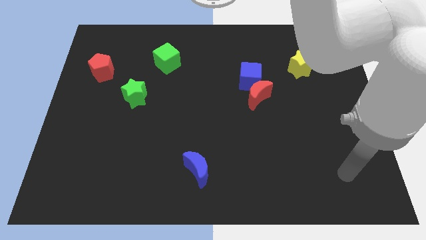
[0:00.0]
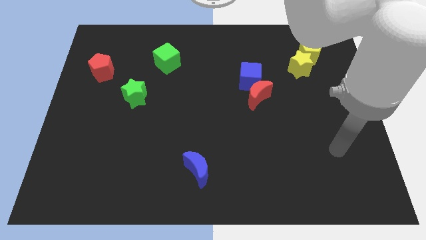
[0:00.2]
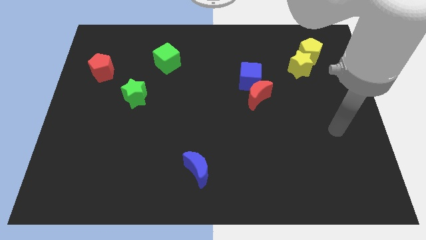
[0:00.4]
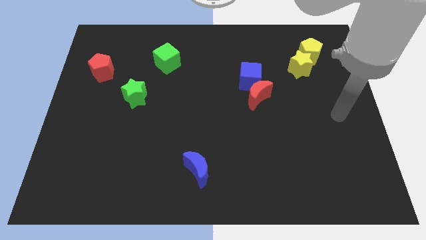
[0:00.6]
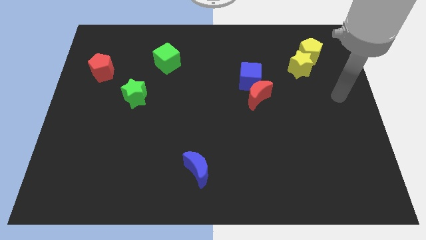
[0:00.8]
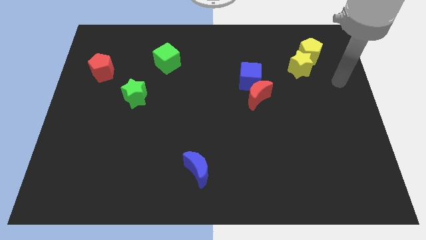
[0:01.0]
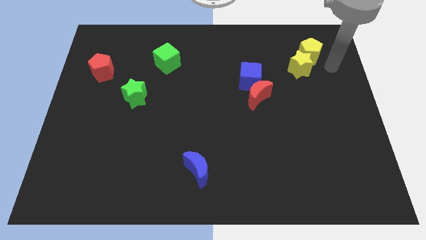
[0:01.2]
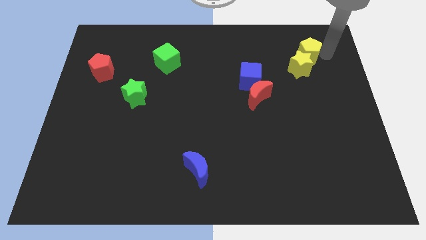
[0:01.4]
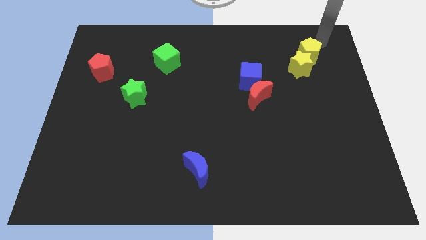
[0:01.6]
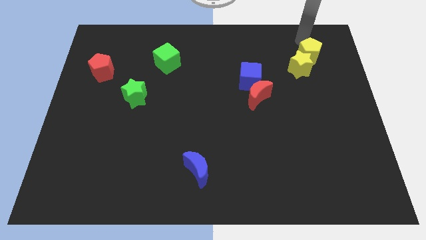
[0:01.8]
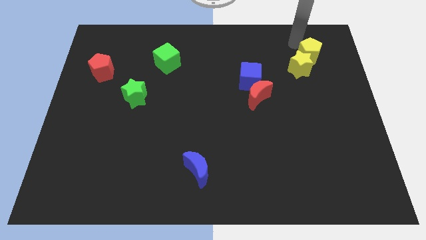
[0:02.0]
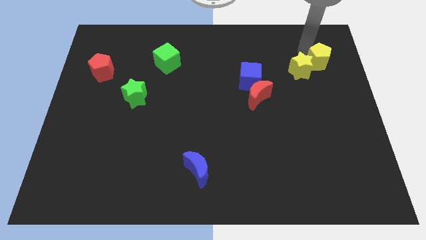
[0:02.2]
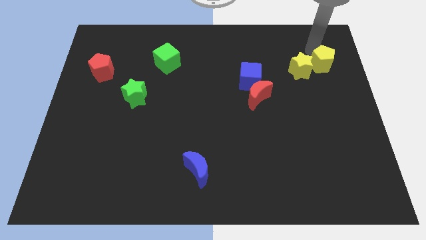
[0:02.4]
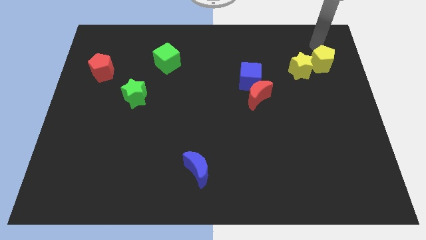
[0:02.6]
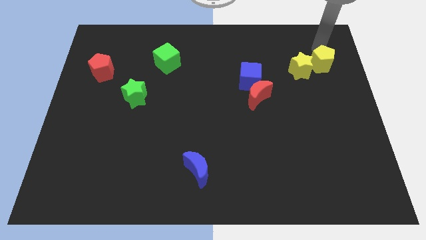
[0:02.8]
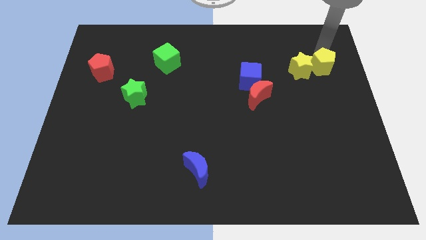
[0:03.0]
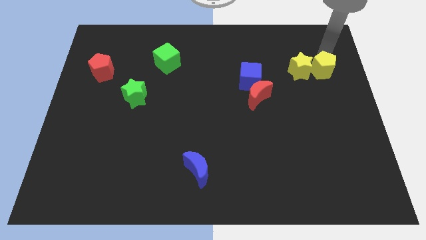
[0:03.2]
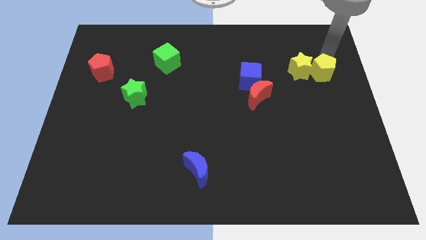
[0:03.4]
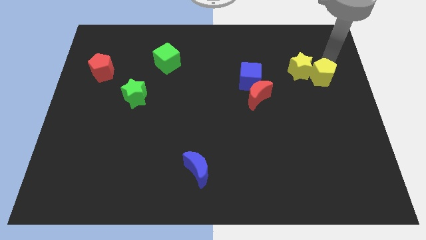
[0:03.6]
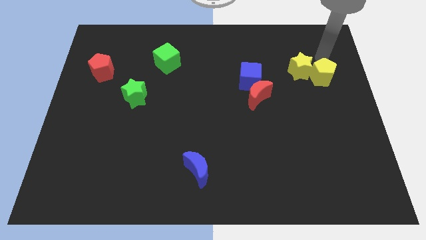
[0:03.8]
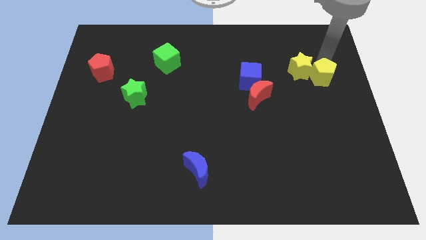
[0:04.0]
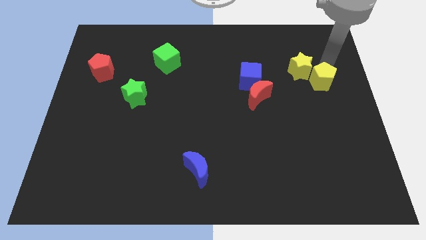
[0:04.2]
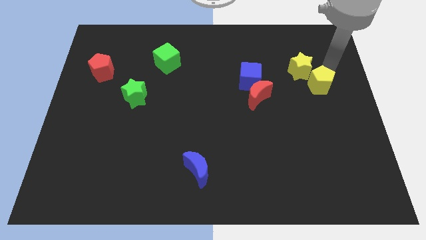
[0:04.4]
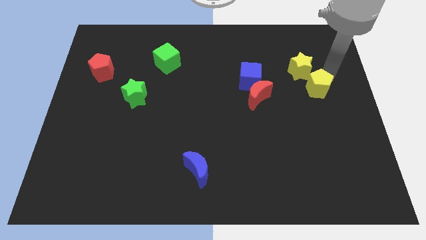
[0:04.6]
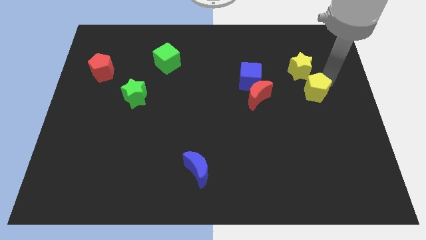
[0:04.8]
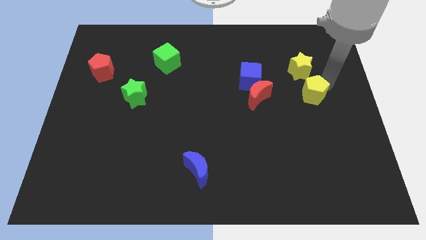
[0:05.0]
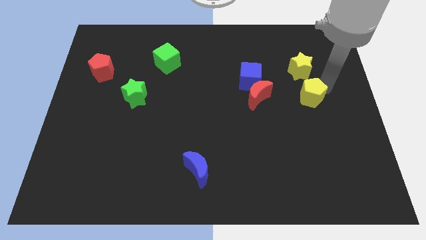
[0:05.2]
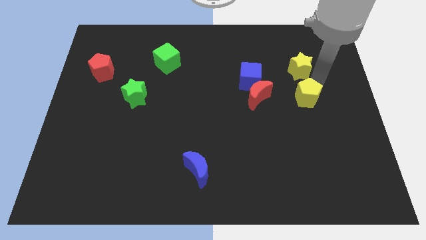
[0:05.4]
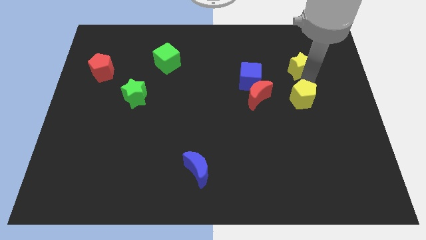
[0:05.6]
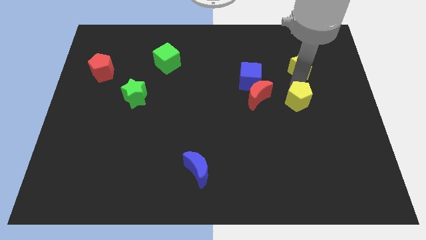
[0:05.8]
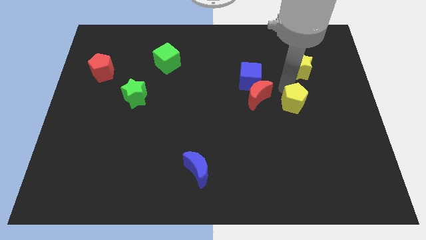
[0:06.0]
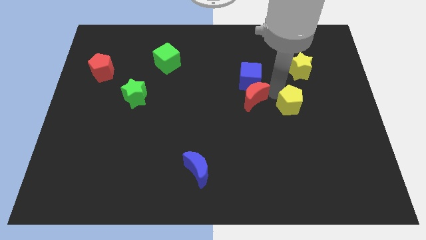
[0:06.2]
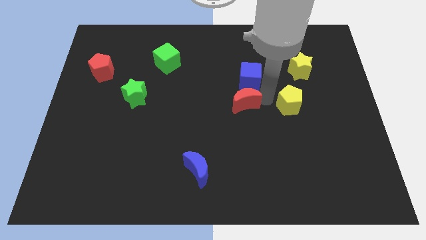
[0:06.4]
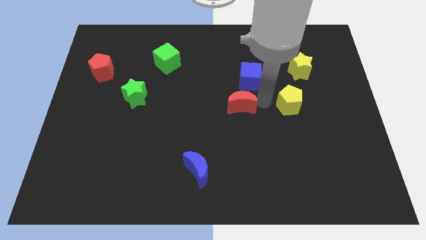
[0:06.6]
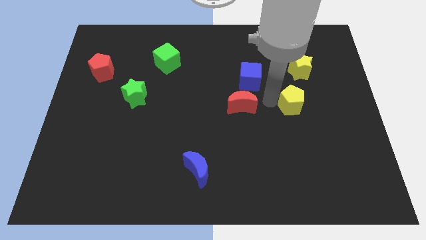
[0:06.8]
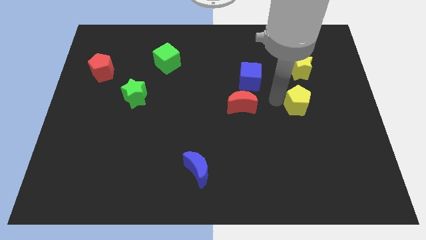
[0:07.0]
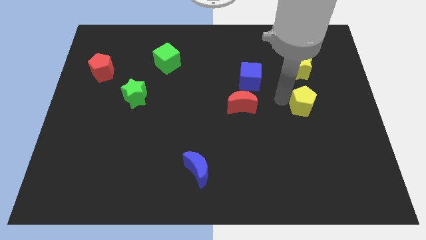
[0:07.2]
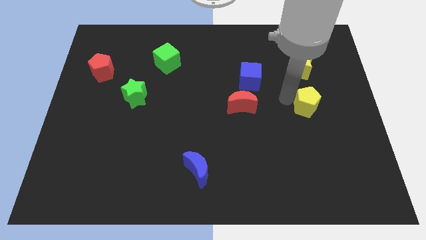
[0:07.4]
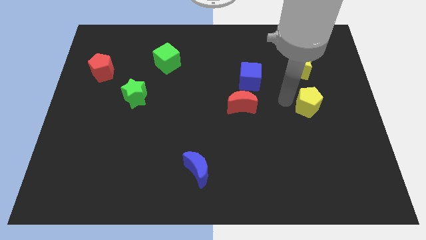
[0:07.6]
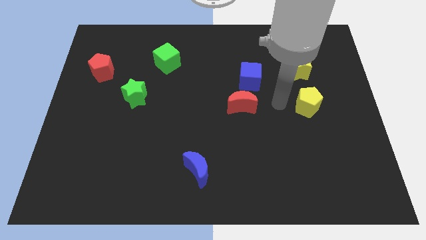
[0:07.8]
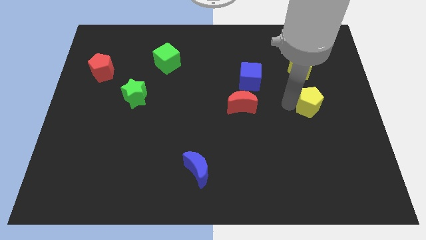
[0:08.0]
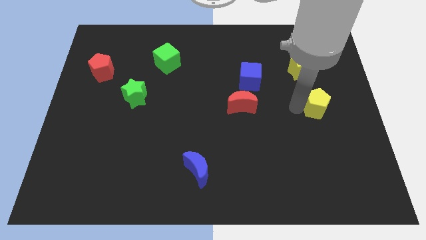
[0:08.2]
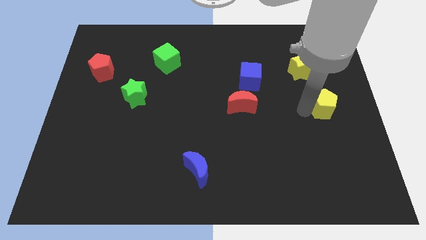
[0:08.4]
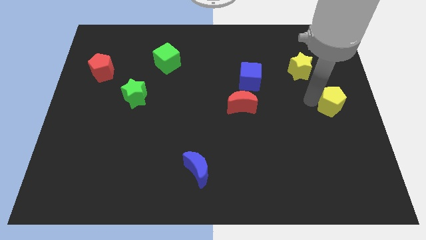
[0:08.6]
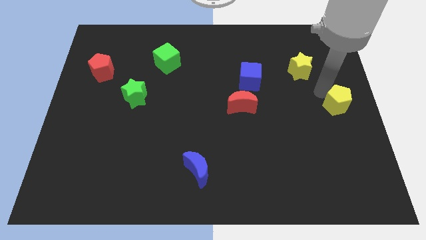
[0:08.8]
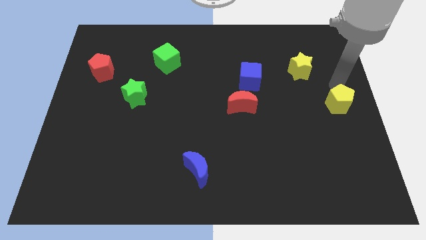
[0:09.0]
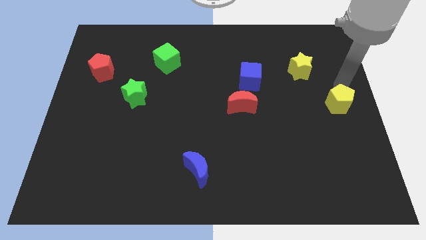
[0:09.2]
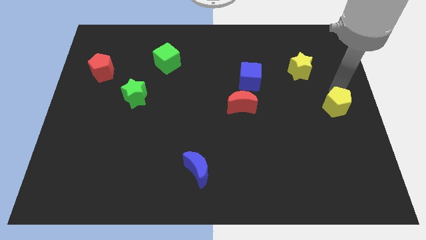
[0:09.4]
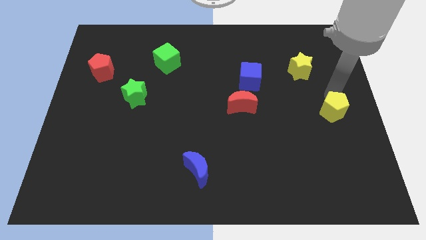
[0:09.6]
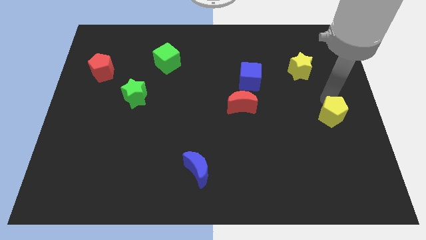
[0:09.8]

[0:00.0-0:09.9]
push the yellow pentagon downwards

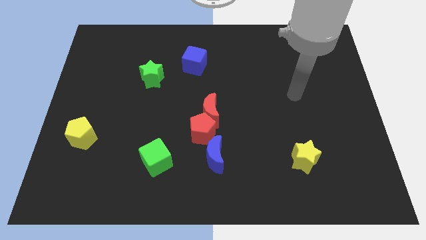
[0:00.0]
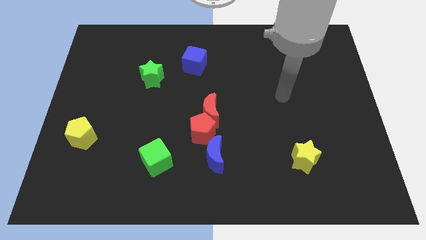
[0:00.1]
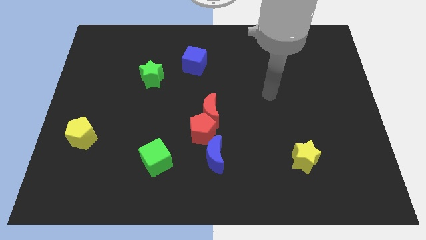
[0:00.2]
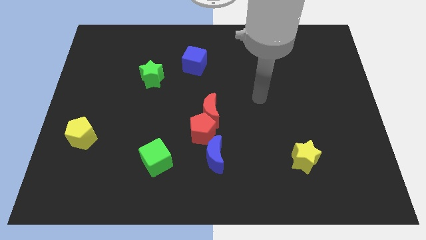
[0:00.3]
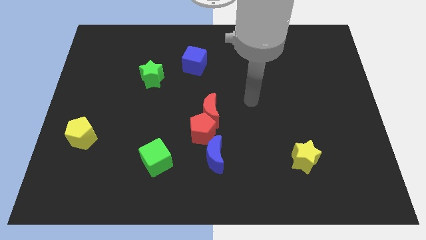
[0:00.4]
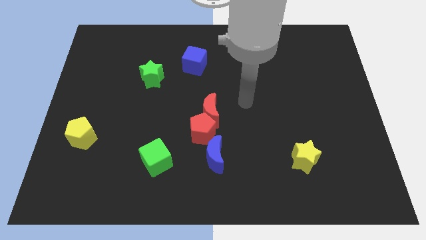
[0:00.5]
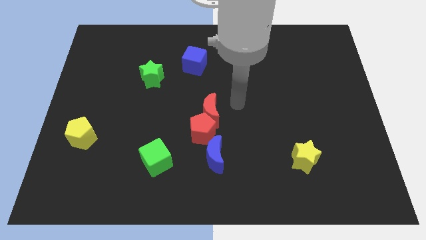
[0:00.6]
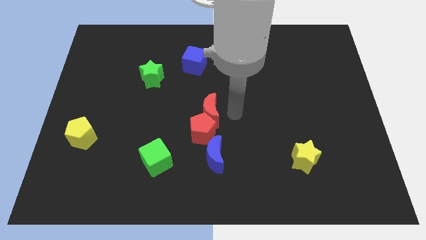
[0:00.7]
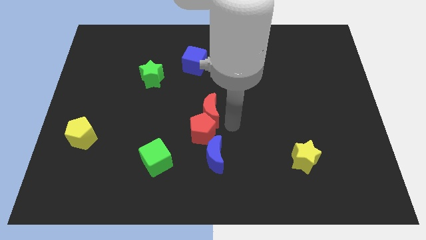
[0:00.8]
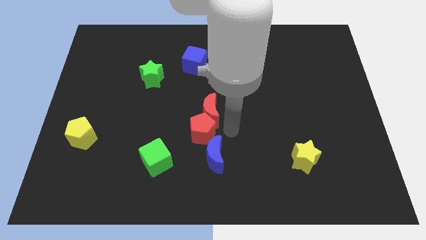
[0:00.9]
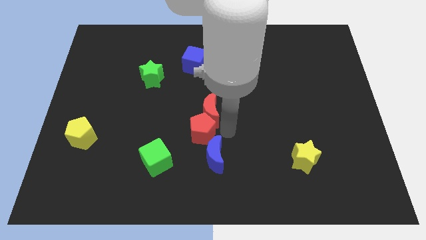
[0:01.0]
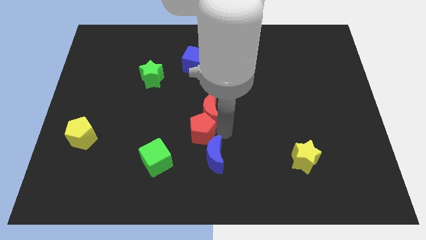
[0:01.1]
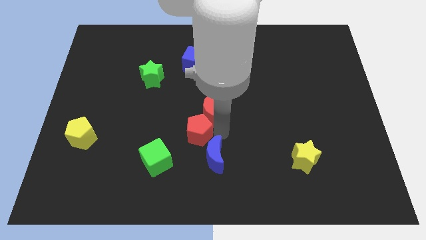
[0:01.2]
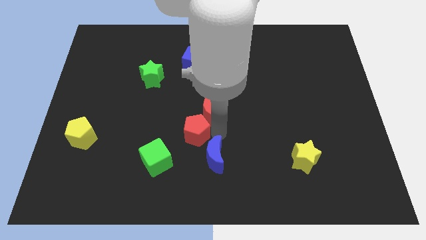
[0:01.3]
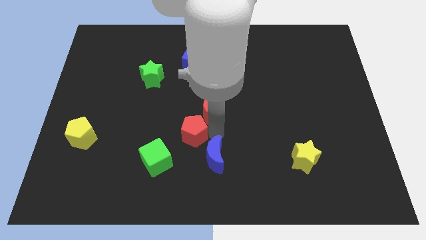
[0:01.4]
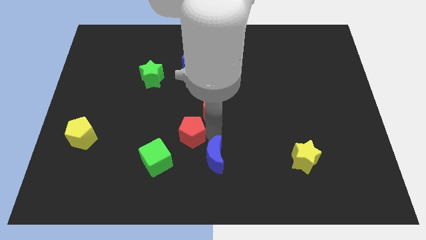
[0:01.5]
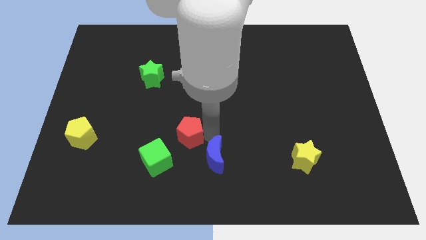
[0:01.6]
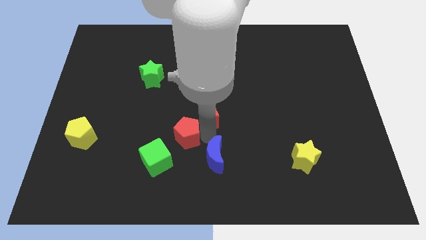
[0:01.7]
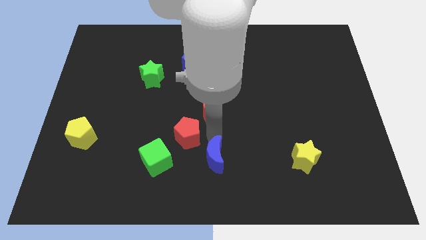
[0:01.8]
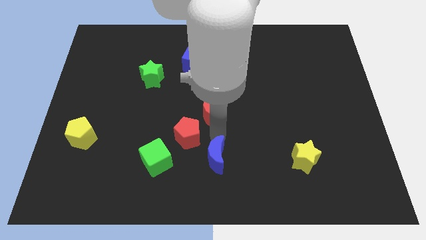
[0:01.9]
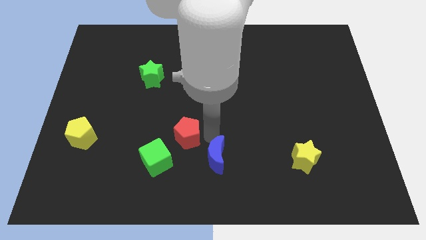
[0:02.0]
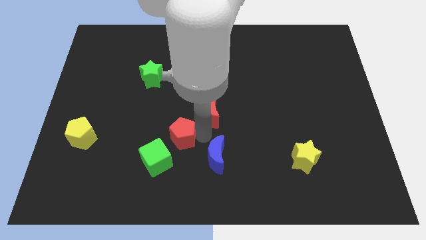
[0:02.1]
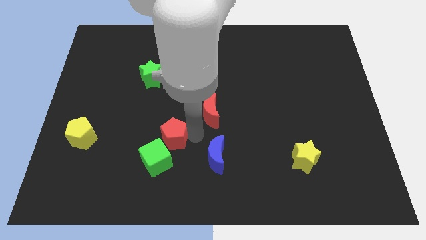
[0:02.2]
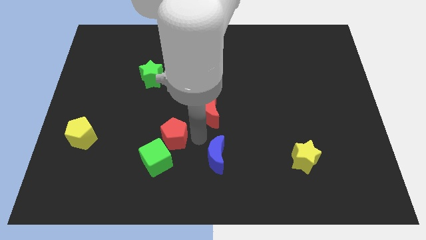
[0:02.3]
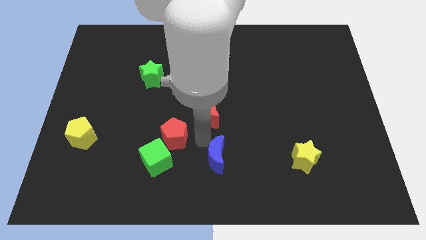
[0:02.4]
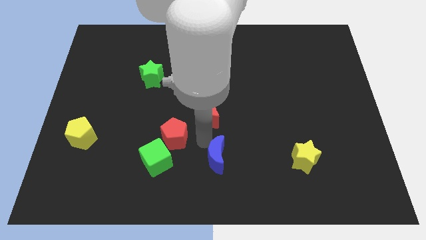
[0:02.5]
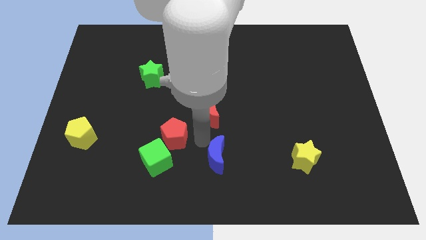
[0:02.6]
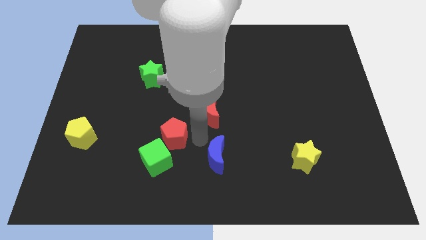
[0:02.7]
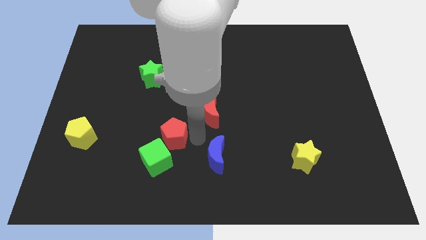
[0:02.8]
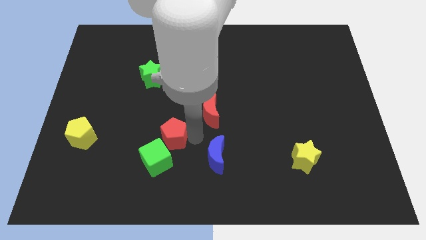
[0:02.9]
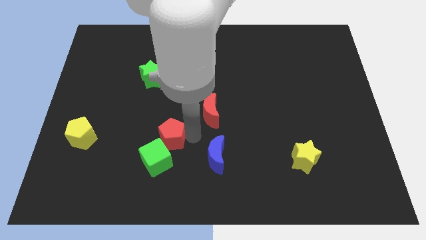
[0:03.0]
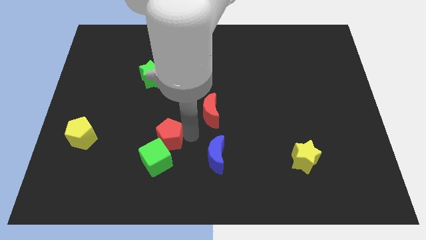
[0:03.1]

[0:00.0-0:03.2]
slightly push the red pentagon to the left
